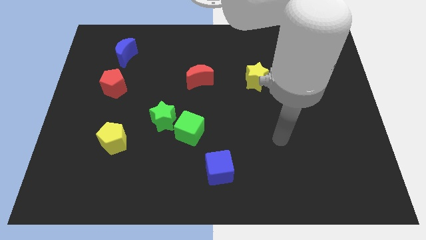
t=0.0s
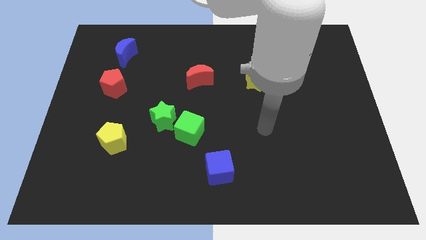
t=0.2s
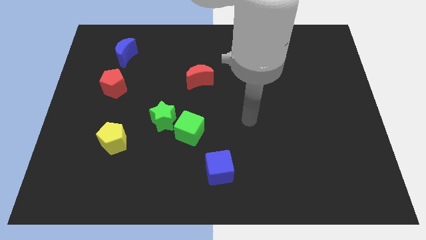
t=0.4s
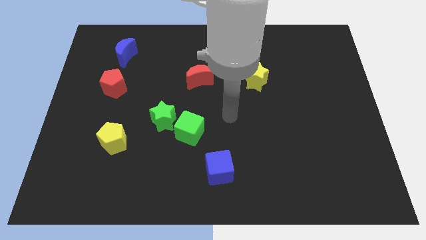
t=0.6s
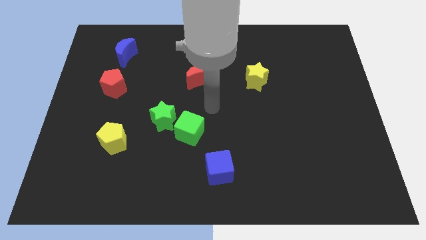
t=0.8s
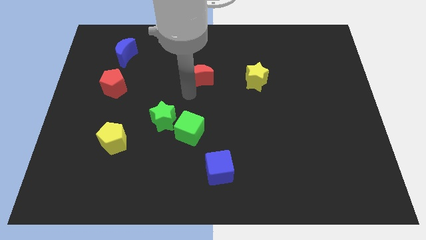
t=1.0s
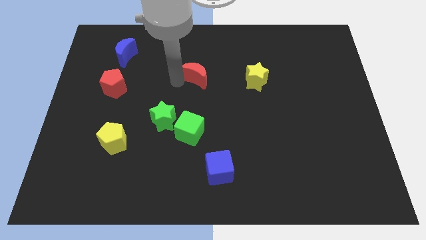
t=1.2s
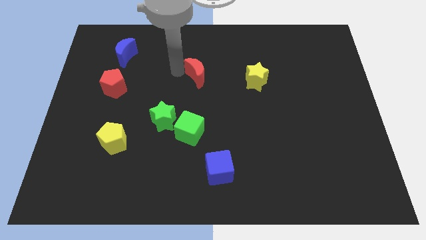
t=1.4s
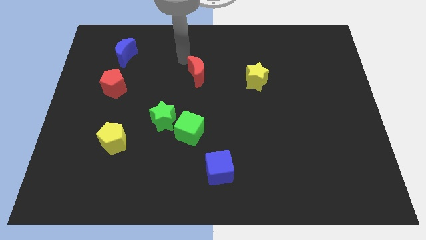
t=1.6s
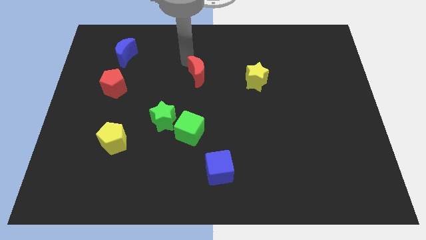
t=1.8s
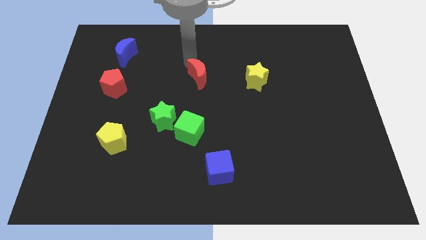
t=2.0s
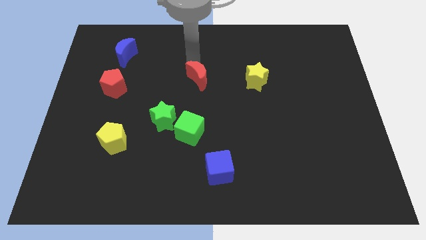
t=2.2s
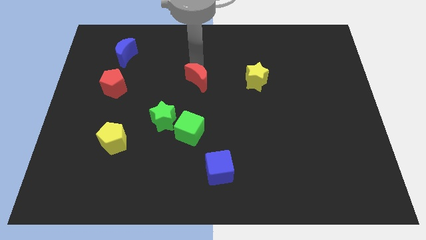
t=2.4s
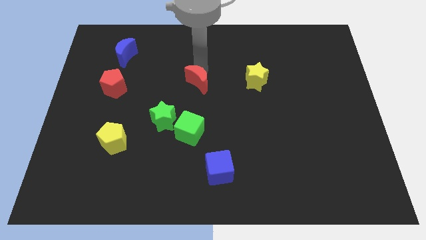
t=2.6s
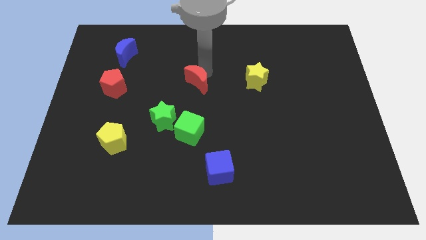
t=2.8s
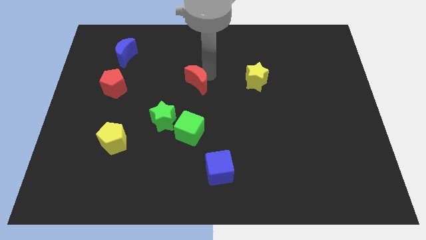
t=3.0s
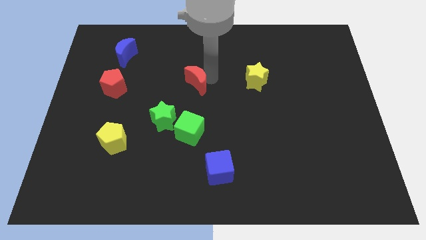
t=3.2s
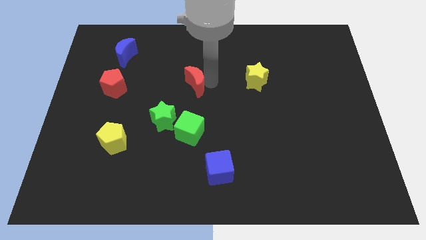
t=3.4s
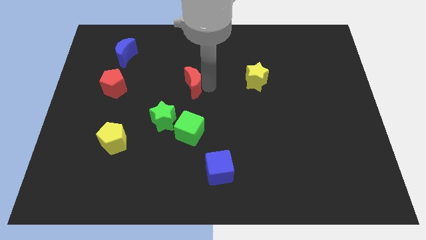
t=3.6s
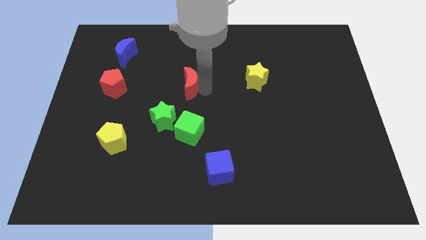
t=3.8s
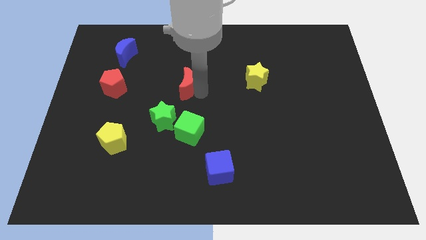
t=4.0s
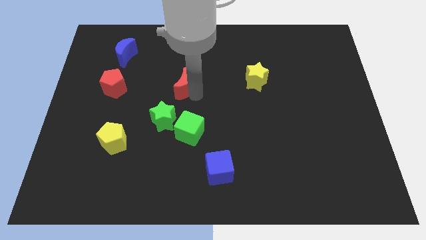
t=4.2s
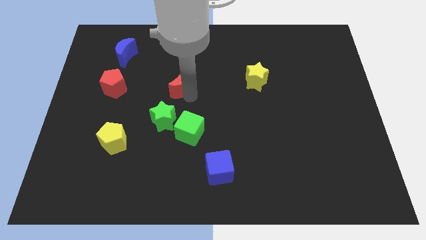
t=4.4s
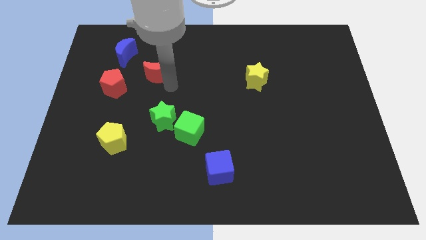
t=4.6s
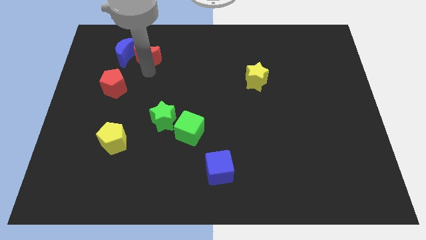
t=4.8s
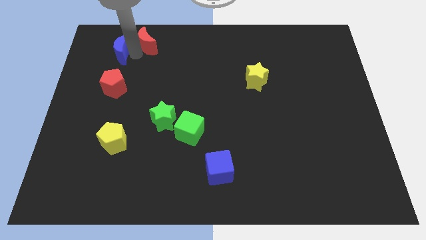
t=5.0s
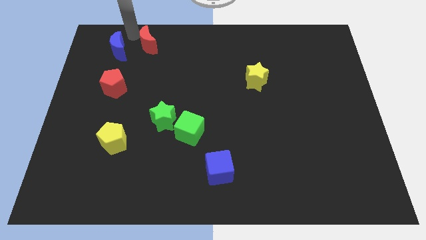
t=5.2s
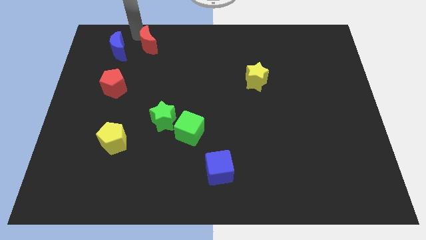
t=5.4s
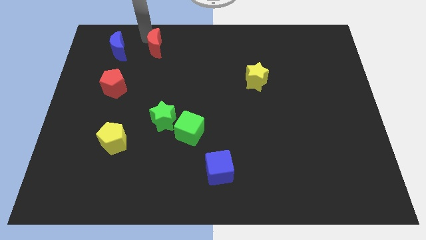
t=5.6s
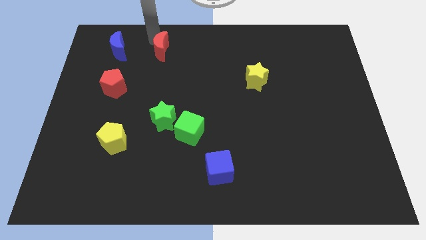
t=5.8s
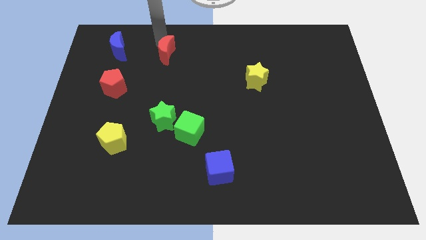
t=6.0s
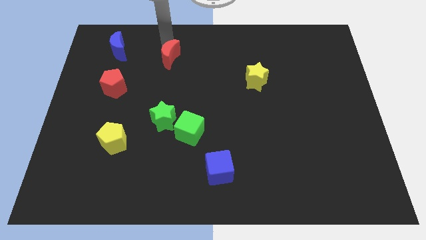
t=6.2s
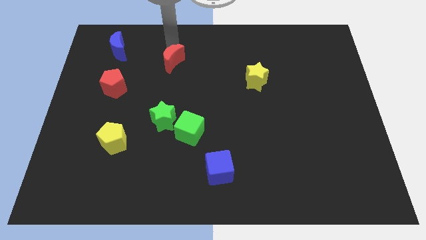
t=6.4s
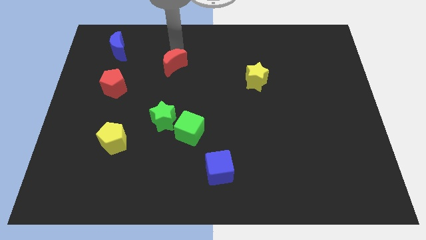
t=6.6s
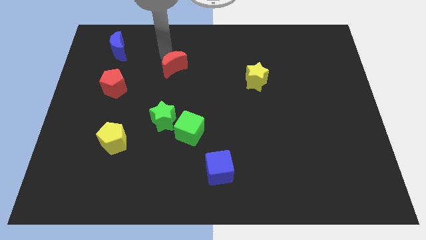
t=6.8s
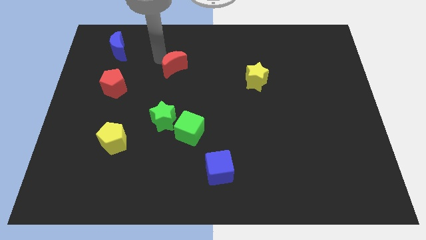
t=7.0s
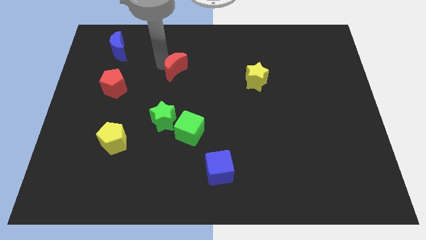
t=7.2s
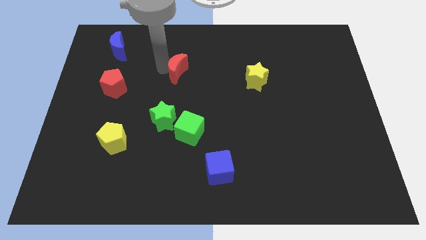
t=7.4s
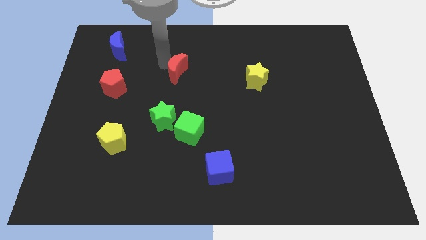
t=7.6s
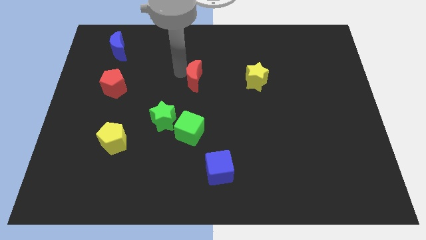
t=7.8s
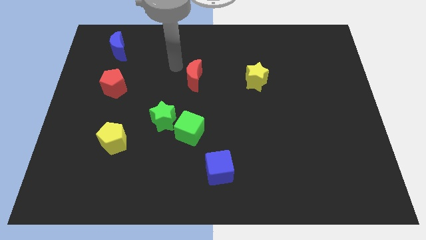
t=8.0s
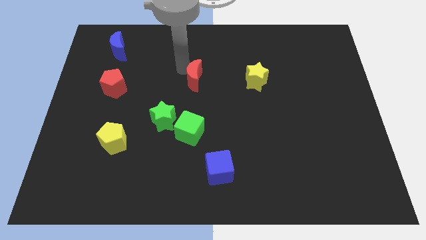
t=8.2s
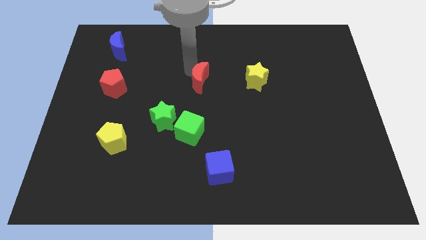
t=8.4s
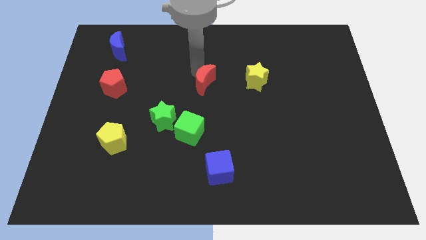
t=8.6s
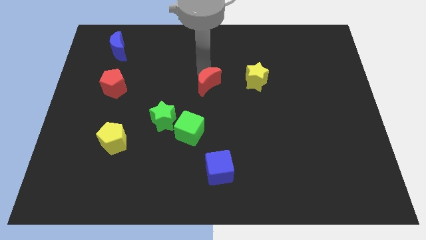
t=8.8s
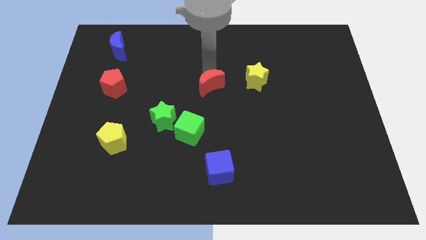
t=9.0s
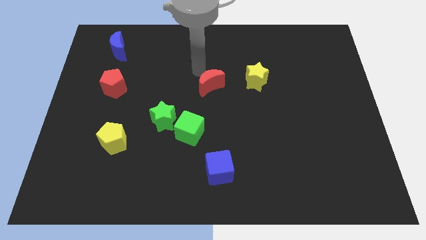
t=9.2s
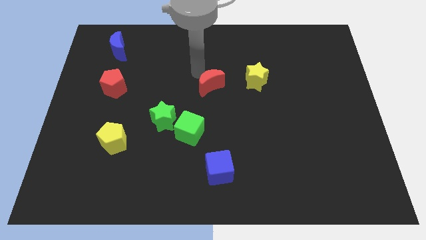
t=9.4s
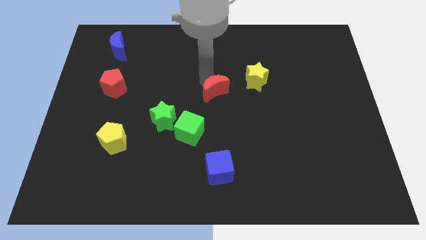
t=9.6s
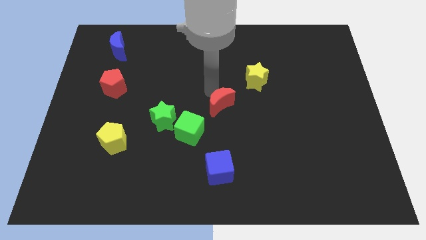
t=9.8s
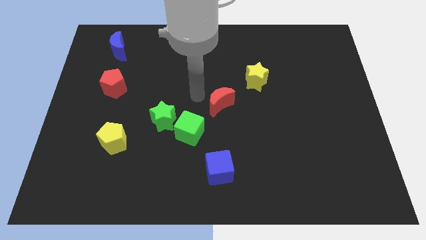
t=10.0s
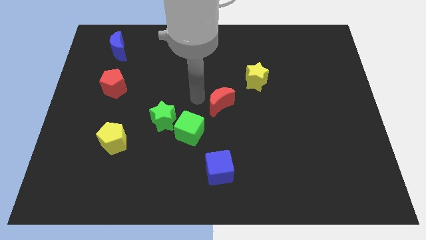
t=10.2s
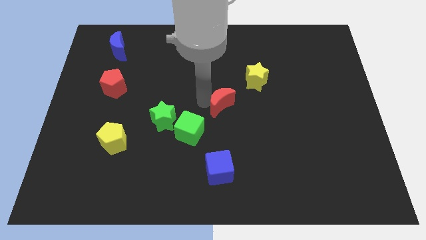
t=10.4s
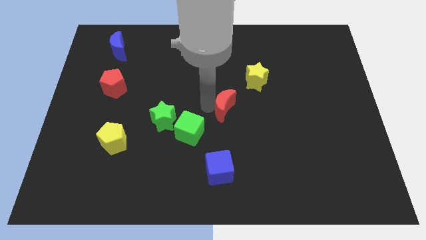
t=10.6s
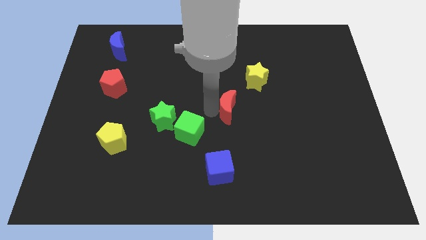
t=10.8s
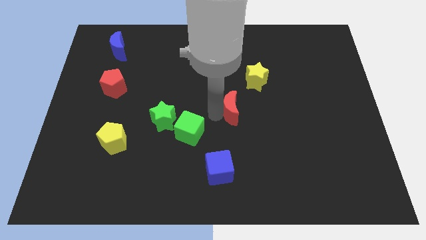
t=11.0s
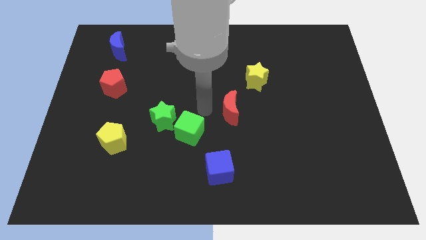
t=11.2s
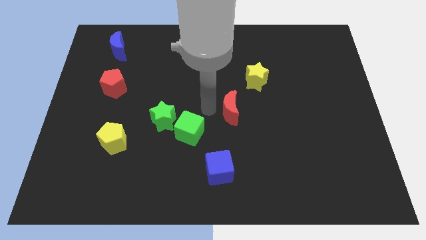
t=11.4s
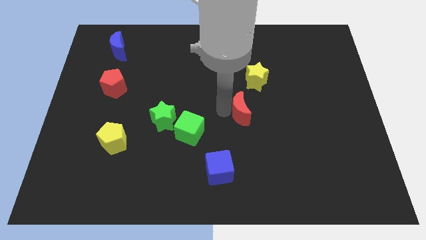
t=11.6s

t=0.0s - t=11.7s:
slide the red moon to the bottom of the yellow star

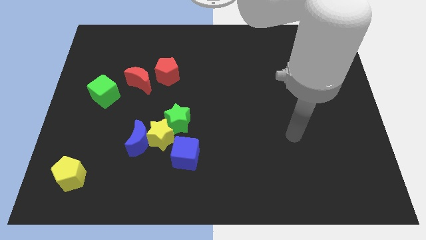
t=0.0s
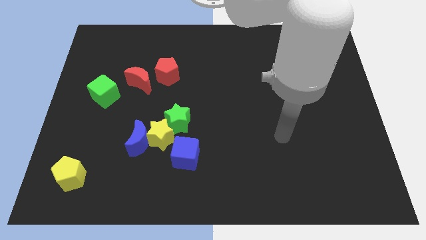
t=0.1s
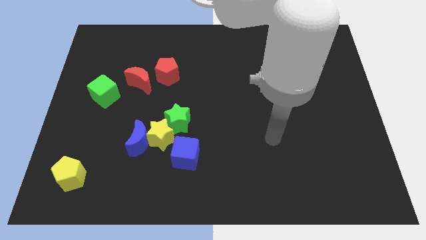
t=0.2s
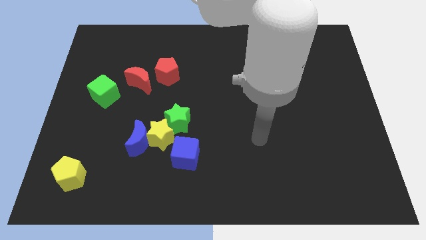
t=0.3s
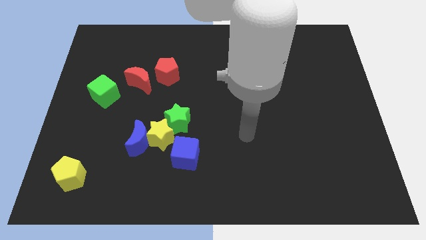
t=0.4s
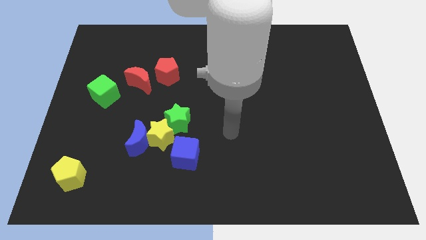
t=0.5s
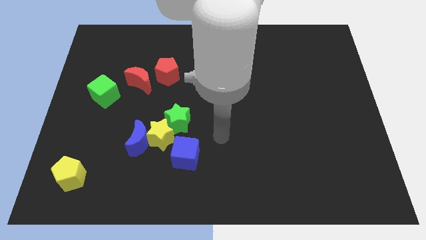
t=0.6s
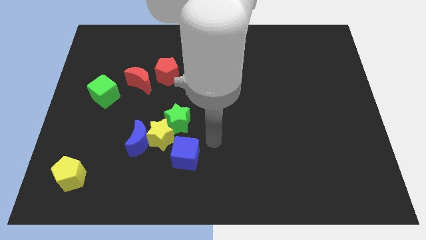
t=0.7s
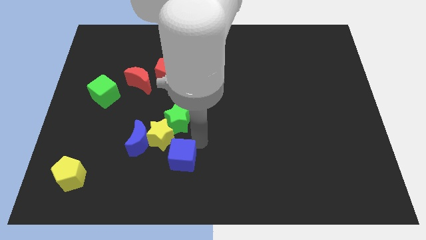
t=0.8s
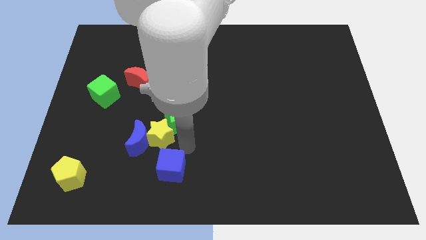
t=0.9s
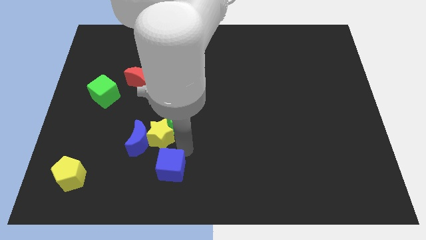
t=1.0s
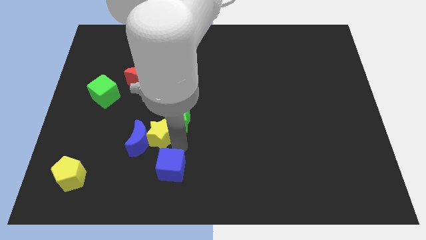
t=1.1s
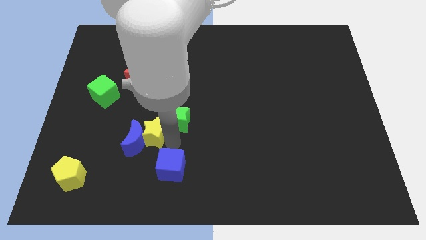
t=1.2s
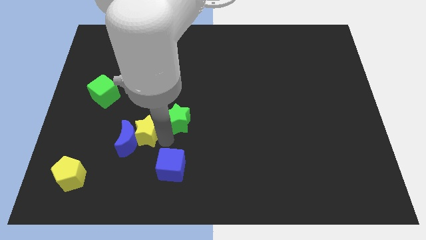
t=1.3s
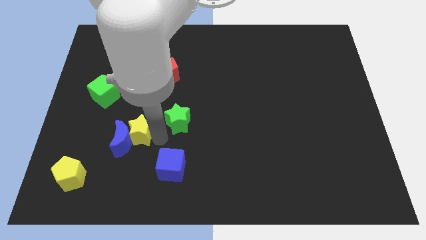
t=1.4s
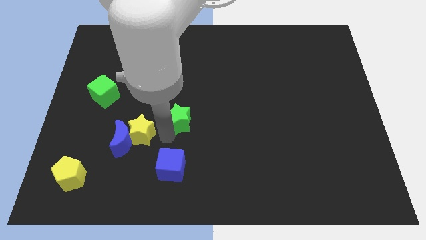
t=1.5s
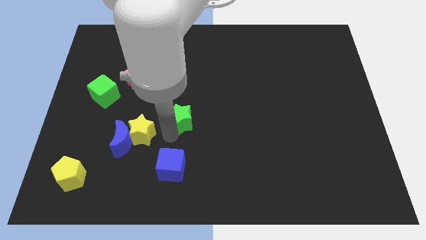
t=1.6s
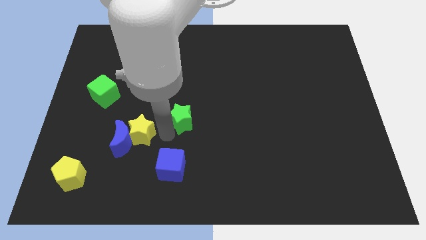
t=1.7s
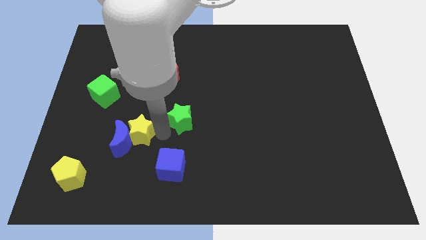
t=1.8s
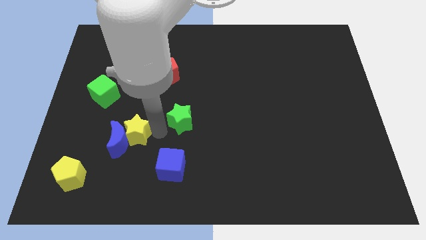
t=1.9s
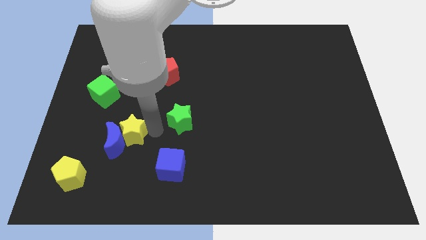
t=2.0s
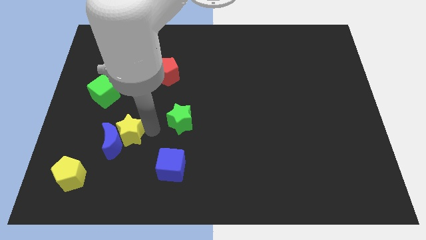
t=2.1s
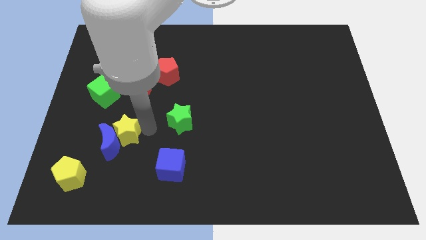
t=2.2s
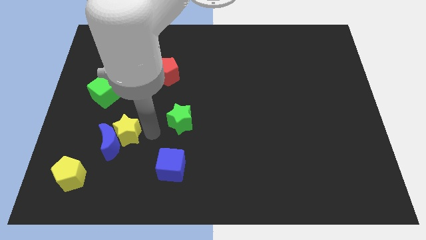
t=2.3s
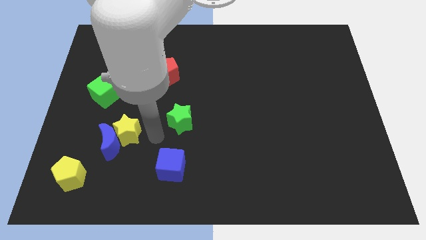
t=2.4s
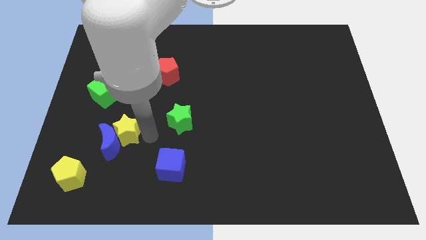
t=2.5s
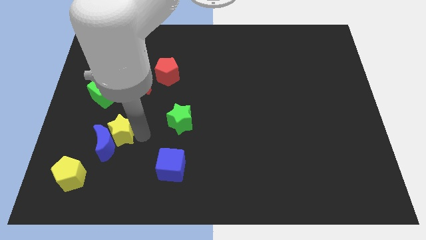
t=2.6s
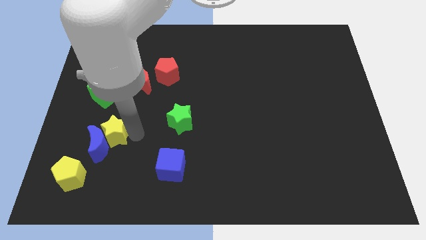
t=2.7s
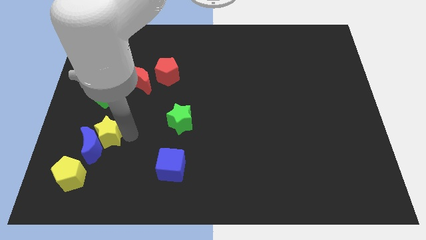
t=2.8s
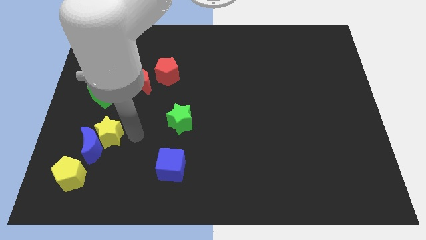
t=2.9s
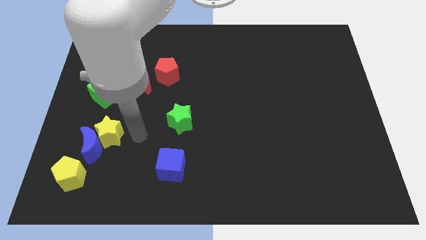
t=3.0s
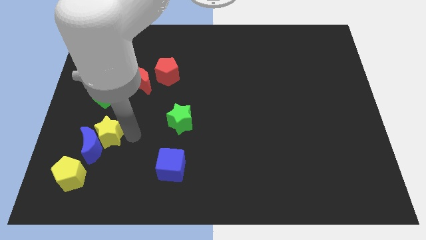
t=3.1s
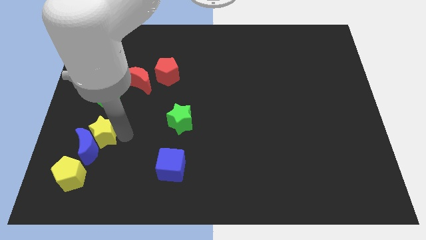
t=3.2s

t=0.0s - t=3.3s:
move the yellow star to the top of the yellow pentagon
